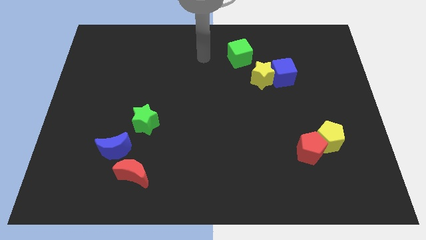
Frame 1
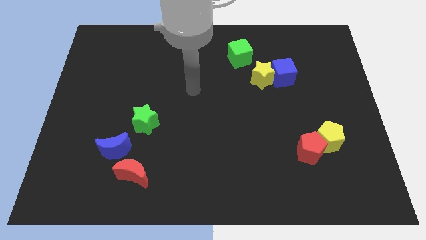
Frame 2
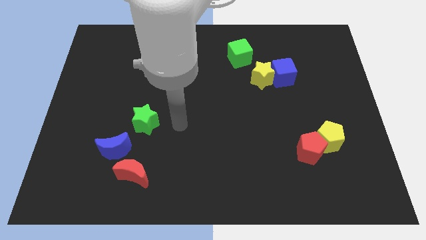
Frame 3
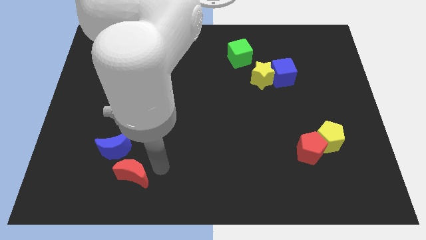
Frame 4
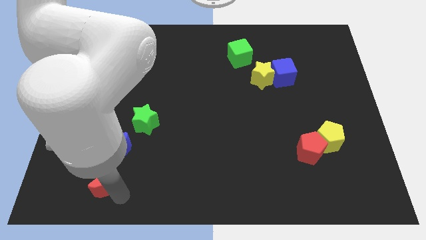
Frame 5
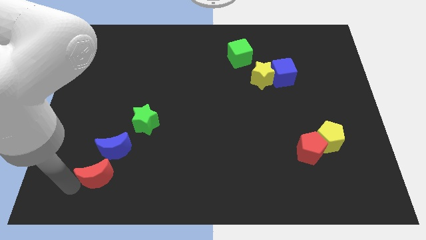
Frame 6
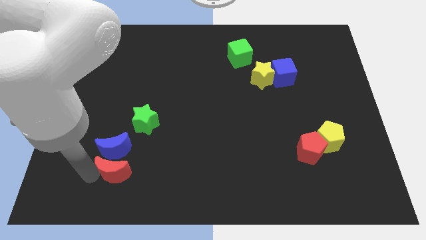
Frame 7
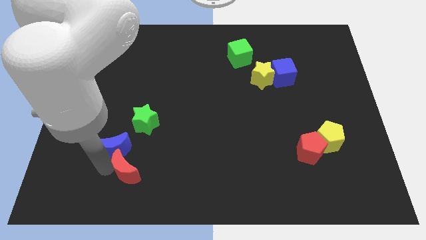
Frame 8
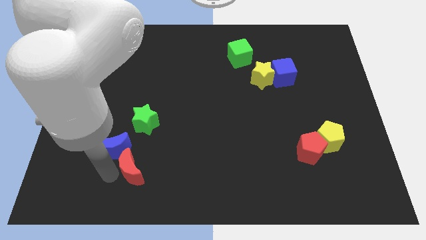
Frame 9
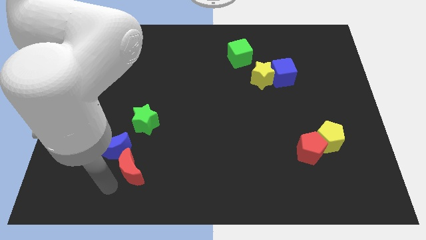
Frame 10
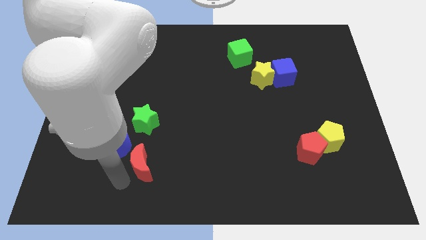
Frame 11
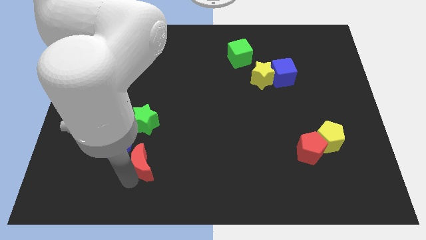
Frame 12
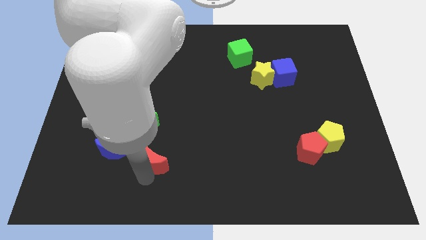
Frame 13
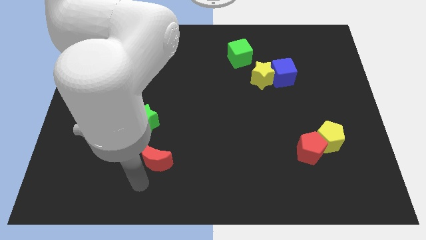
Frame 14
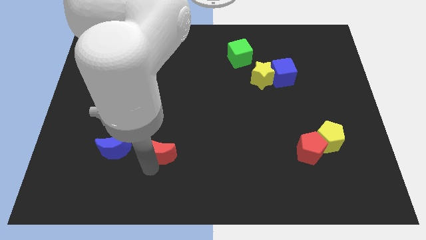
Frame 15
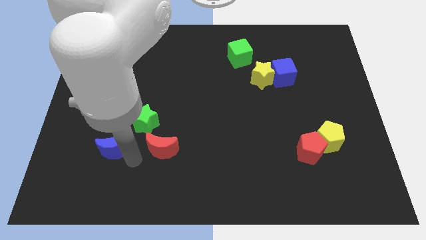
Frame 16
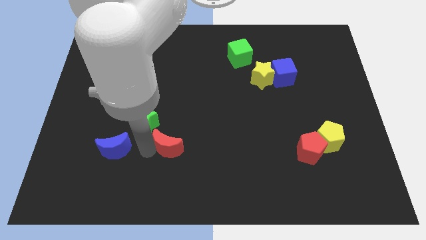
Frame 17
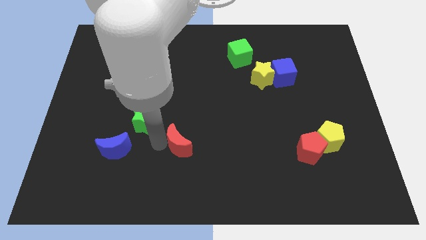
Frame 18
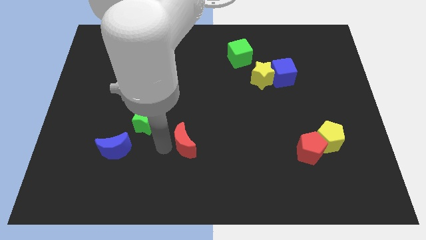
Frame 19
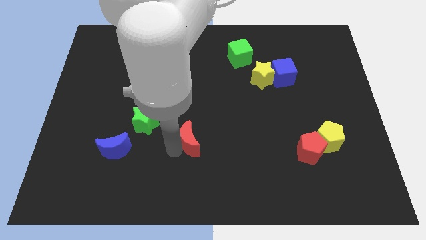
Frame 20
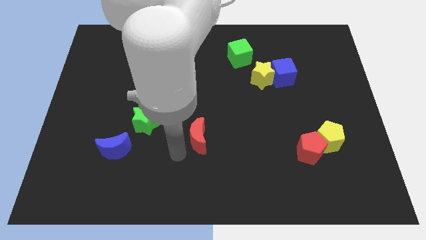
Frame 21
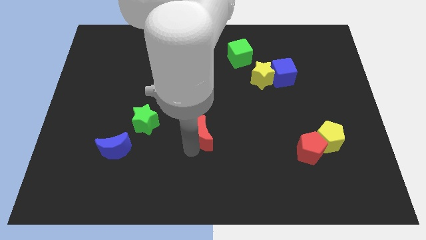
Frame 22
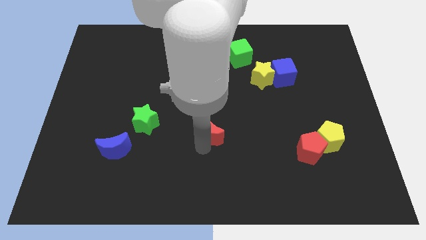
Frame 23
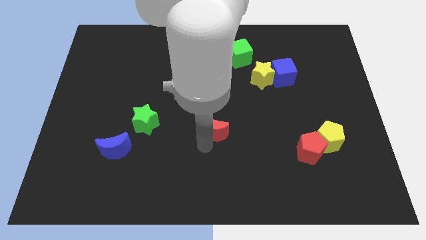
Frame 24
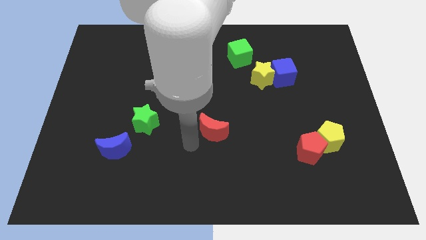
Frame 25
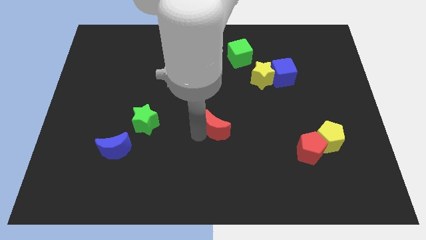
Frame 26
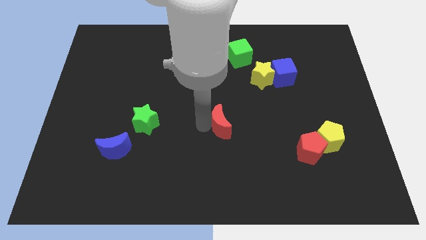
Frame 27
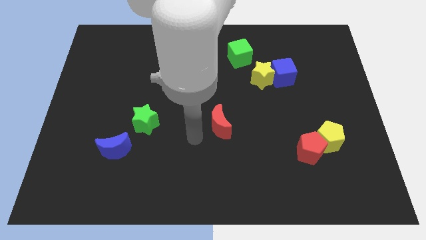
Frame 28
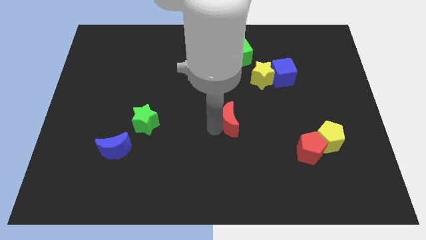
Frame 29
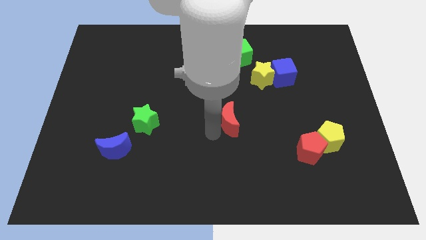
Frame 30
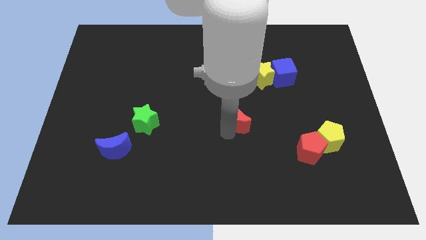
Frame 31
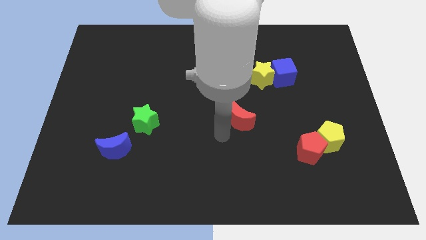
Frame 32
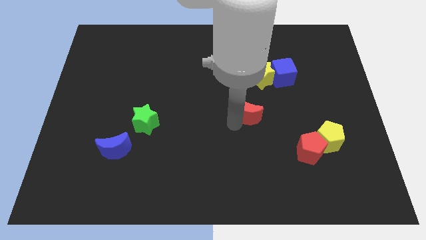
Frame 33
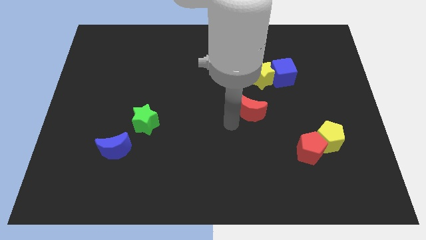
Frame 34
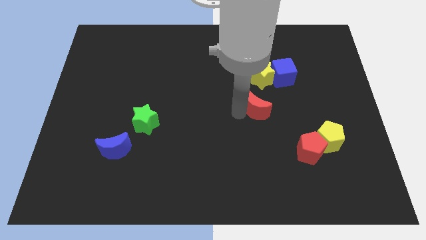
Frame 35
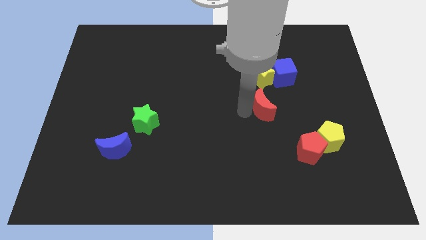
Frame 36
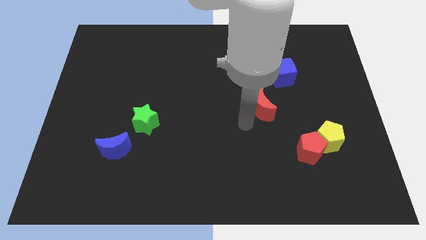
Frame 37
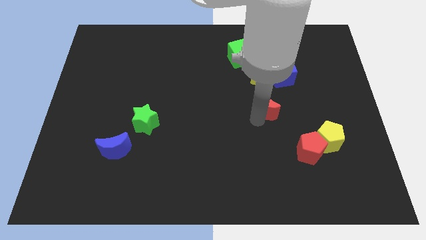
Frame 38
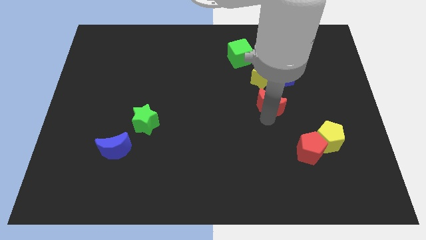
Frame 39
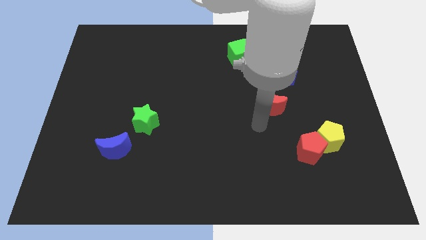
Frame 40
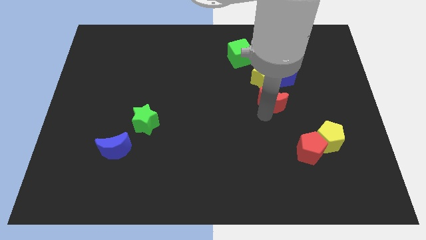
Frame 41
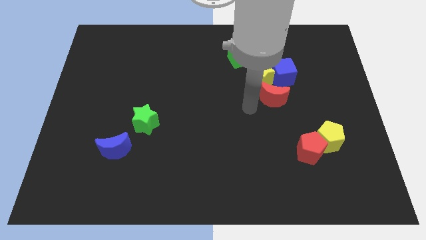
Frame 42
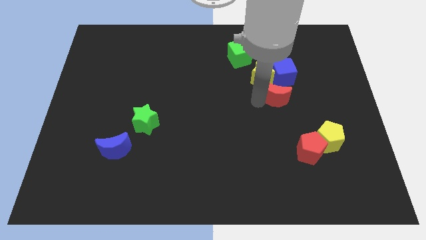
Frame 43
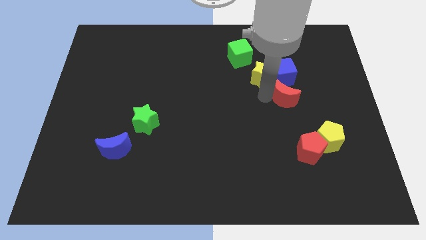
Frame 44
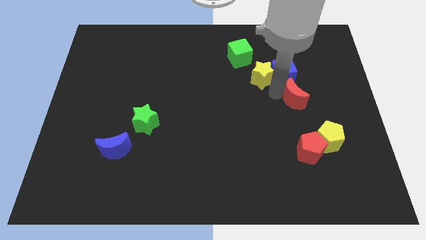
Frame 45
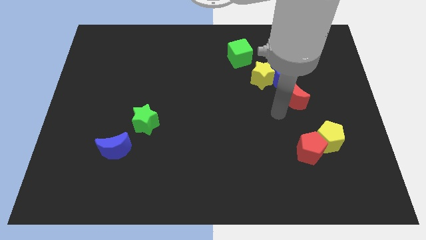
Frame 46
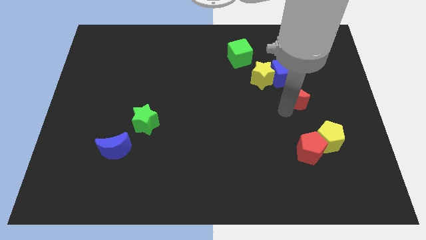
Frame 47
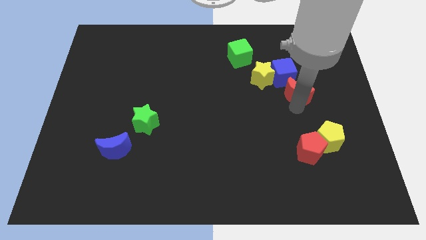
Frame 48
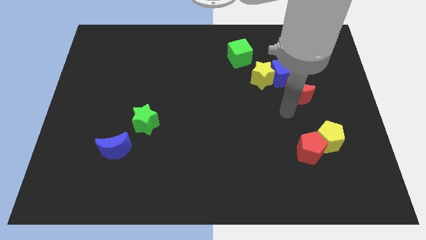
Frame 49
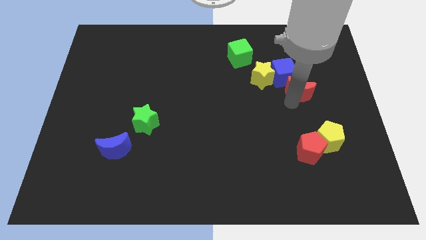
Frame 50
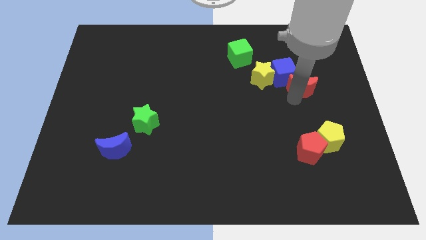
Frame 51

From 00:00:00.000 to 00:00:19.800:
put the red moon to the right of the blue cube

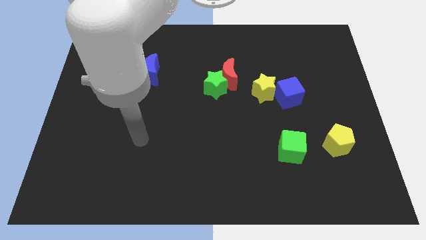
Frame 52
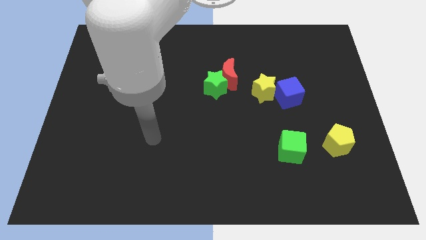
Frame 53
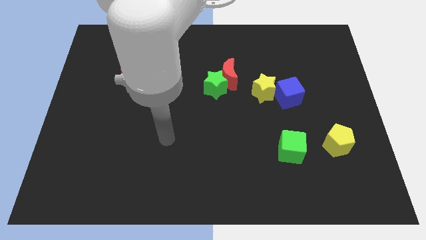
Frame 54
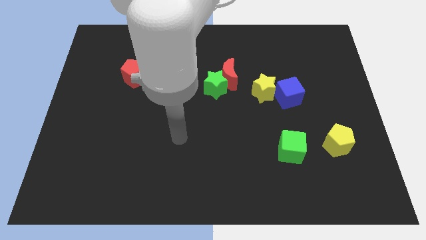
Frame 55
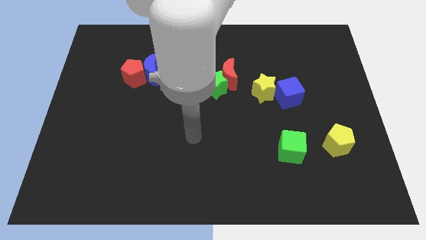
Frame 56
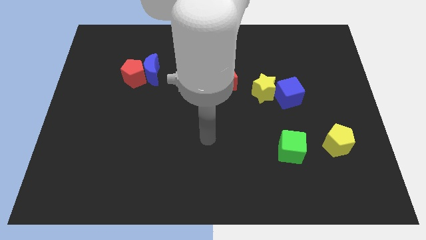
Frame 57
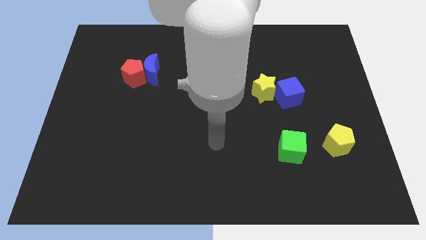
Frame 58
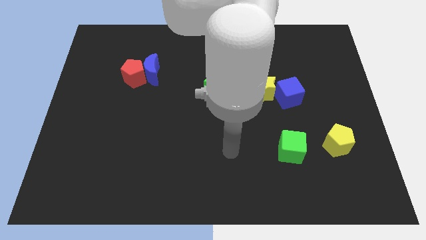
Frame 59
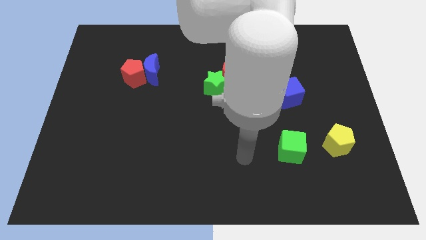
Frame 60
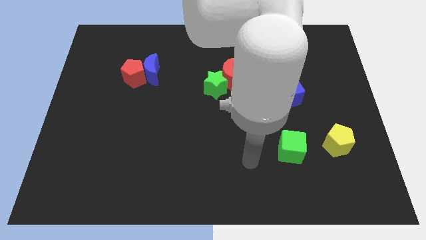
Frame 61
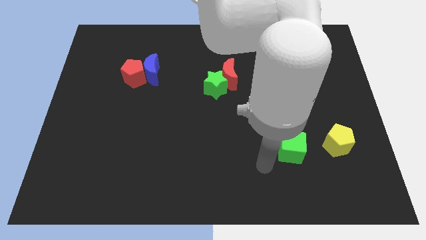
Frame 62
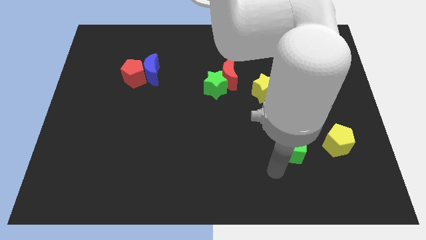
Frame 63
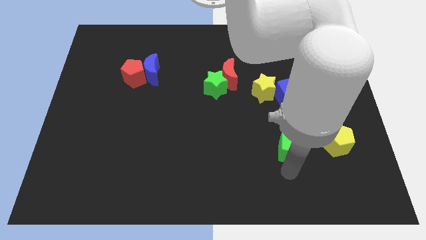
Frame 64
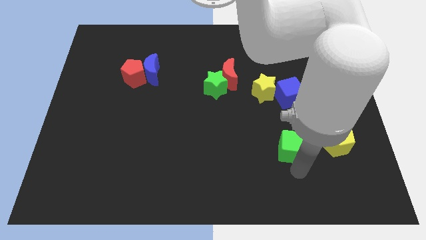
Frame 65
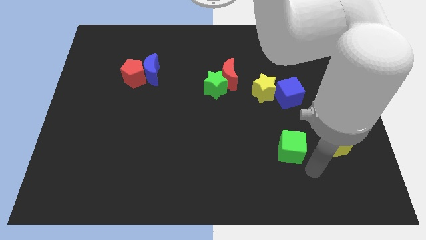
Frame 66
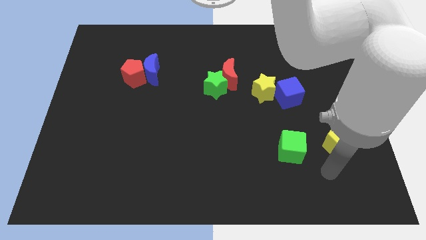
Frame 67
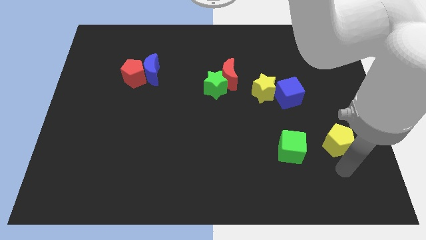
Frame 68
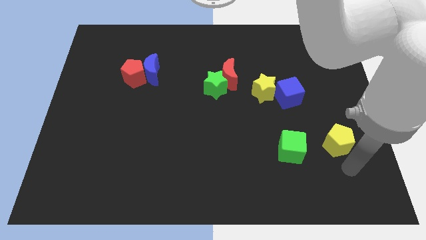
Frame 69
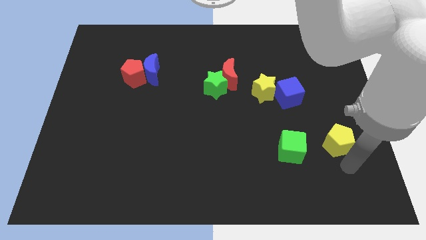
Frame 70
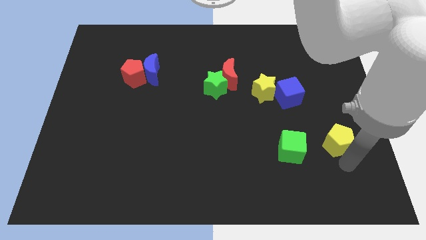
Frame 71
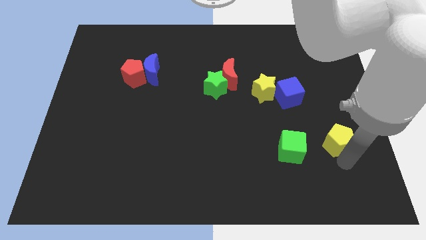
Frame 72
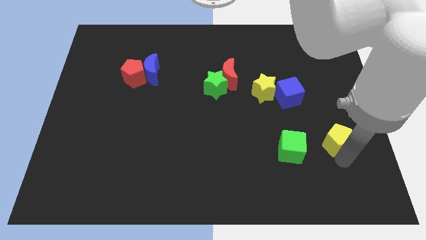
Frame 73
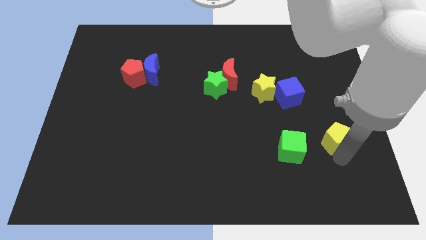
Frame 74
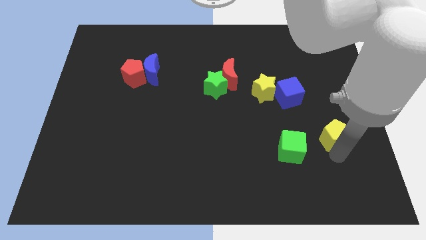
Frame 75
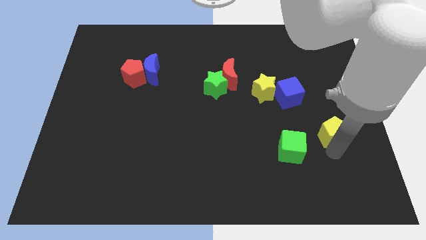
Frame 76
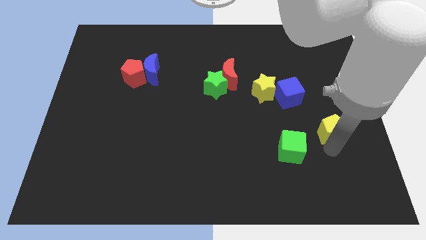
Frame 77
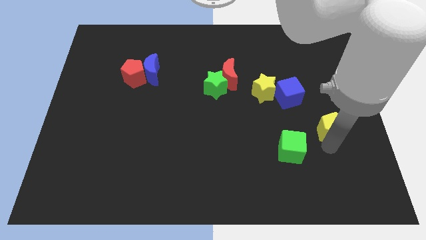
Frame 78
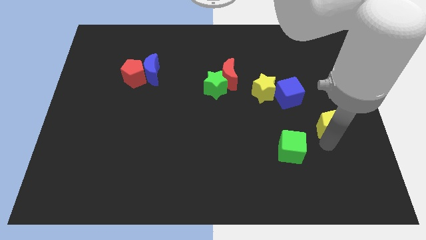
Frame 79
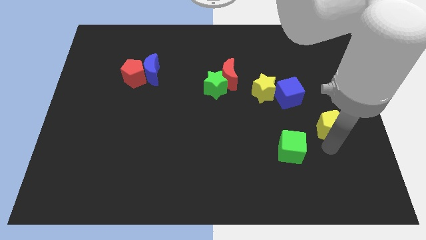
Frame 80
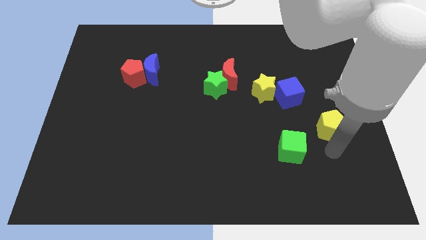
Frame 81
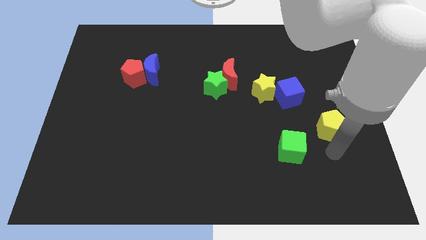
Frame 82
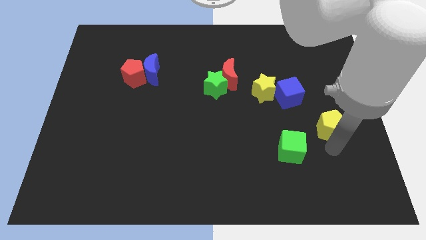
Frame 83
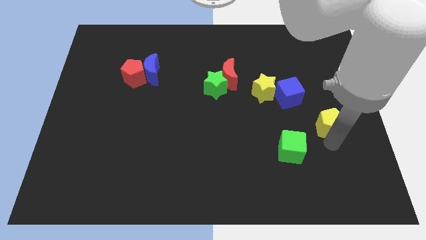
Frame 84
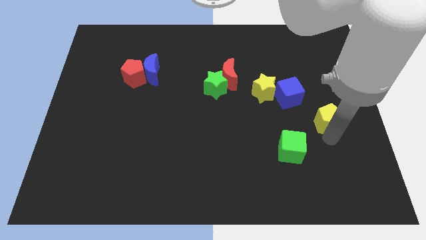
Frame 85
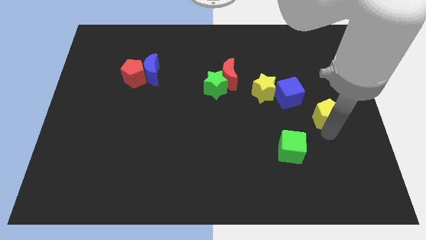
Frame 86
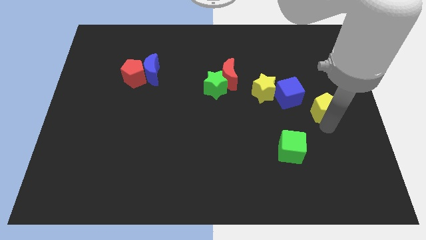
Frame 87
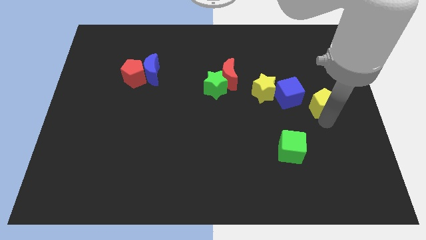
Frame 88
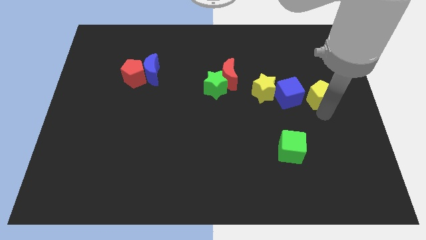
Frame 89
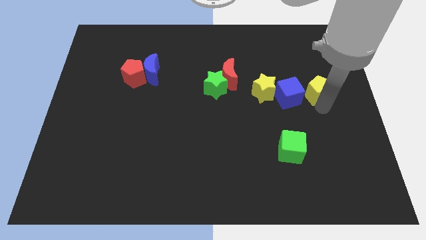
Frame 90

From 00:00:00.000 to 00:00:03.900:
move the yellow pentagon to the top right side of the blue cube
